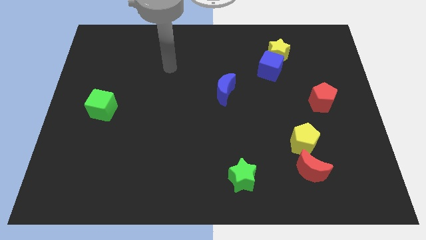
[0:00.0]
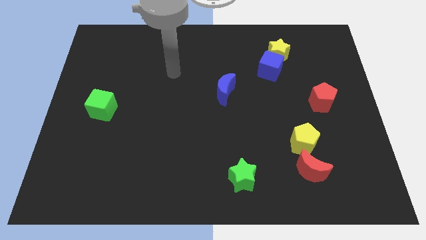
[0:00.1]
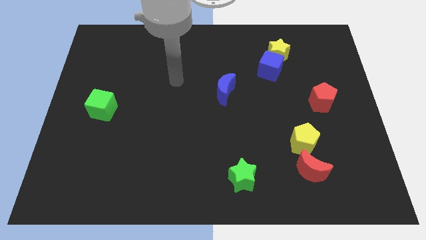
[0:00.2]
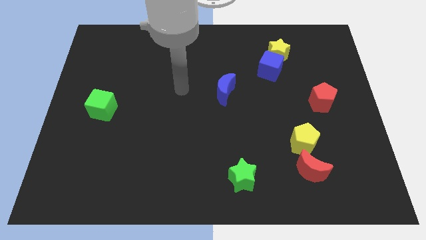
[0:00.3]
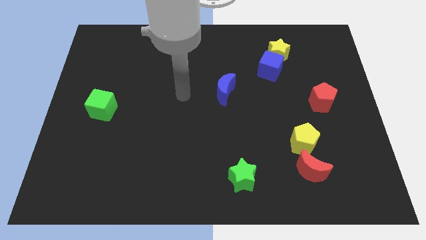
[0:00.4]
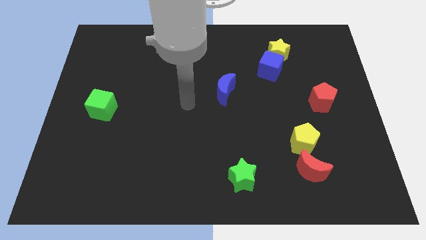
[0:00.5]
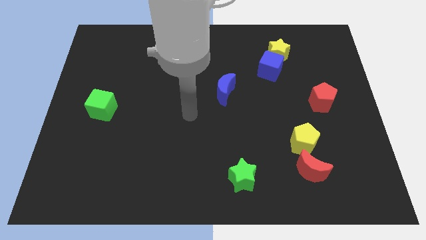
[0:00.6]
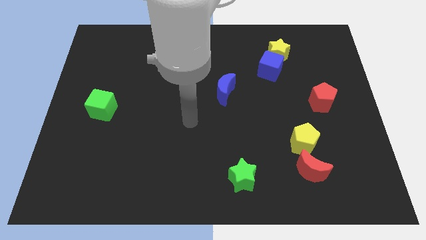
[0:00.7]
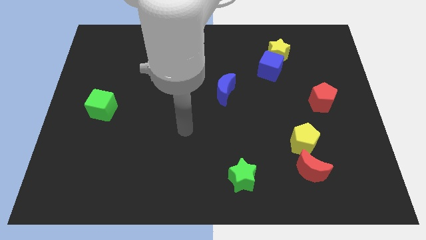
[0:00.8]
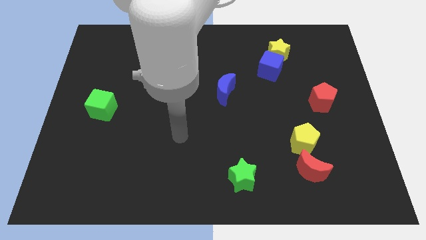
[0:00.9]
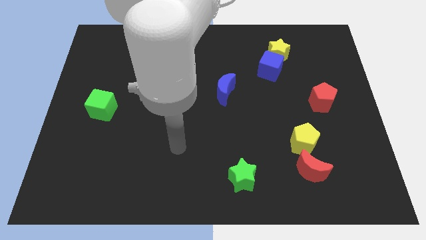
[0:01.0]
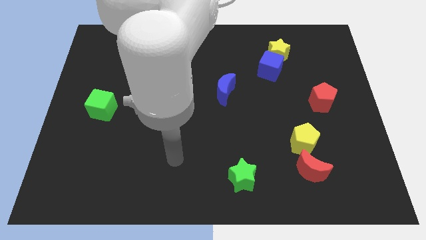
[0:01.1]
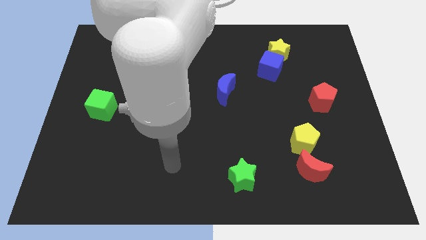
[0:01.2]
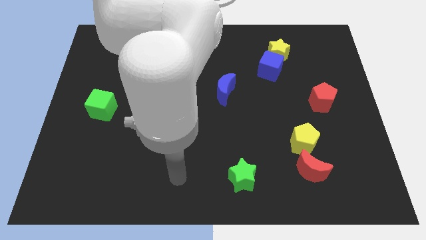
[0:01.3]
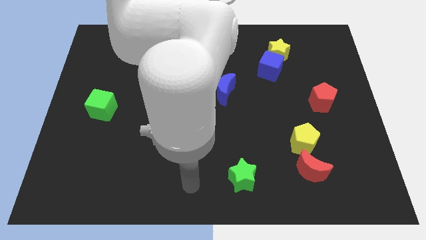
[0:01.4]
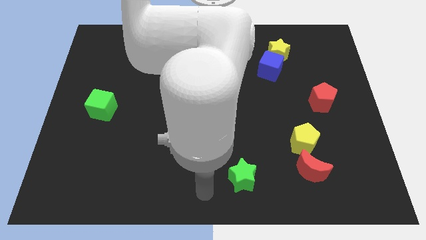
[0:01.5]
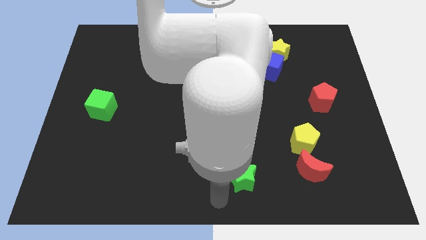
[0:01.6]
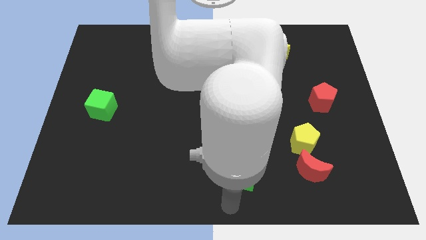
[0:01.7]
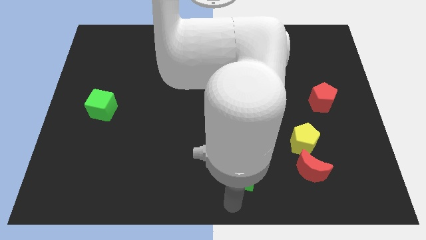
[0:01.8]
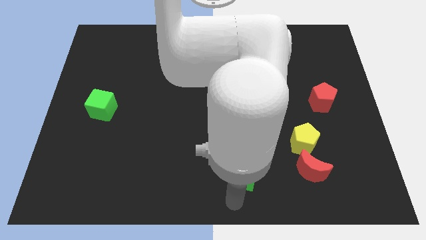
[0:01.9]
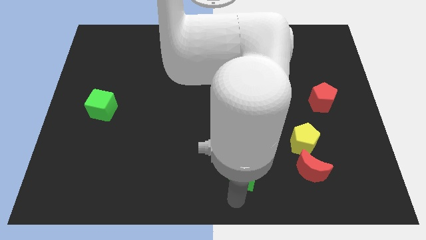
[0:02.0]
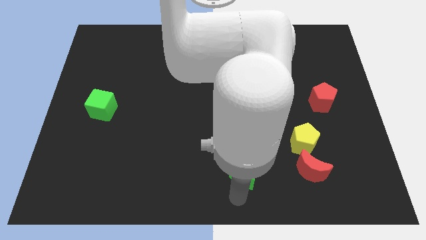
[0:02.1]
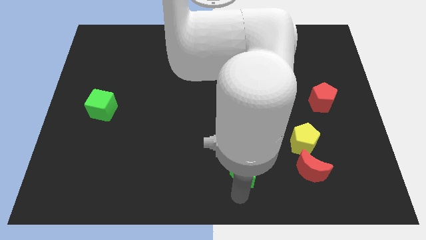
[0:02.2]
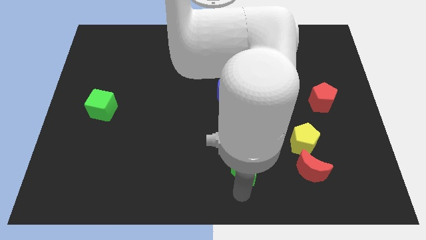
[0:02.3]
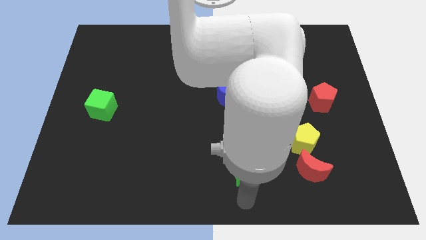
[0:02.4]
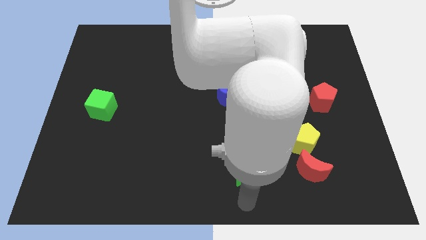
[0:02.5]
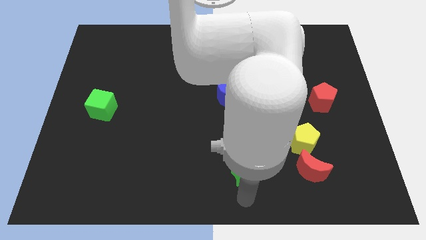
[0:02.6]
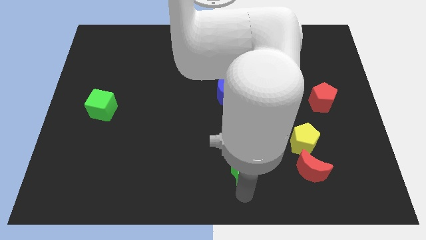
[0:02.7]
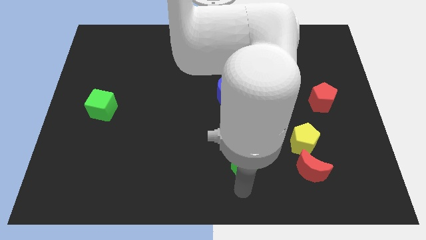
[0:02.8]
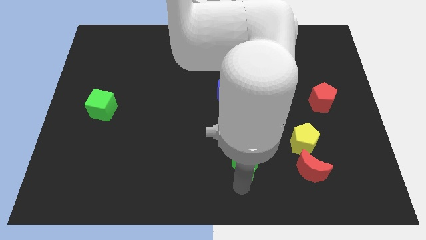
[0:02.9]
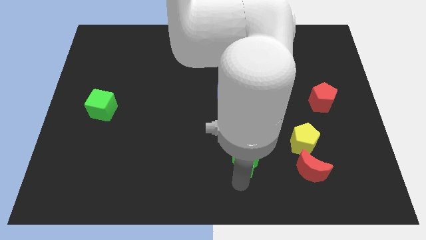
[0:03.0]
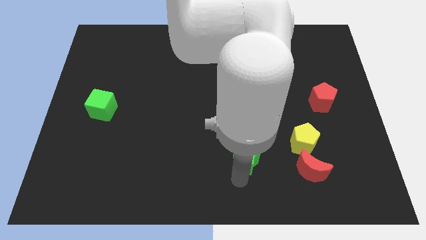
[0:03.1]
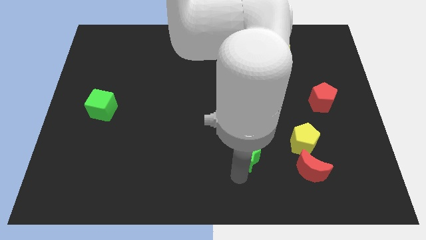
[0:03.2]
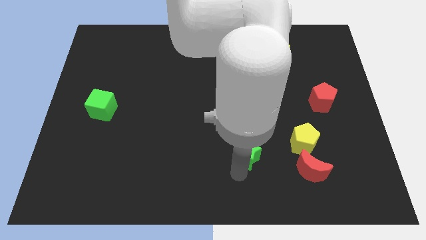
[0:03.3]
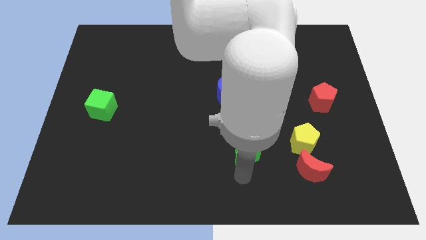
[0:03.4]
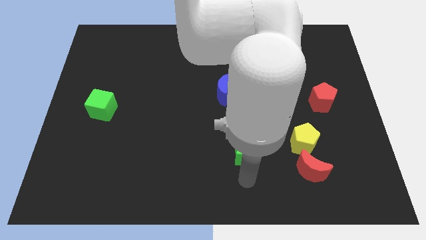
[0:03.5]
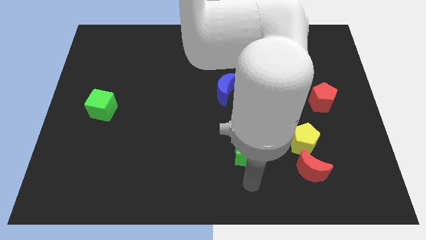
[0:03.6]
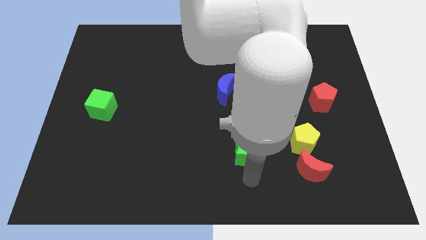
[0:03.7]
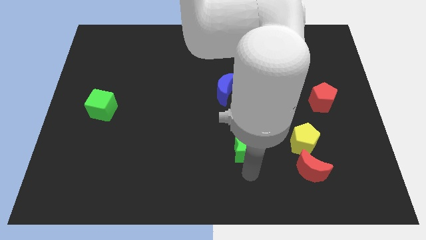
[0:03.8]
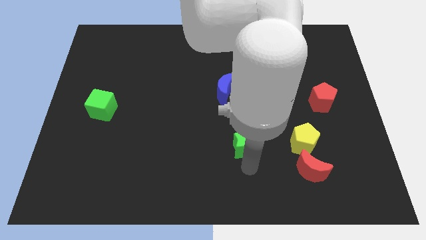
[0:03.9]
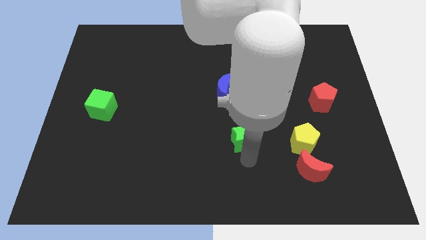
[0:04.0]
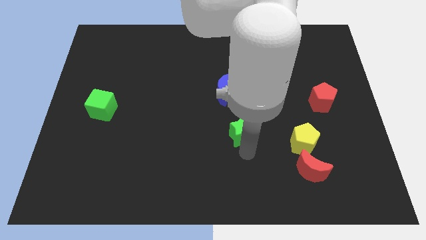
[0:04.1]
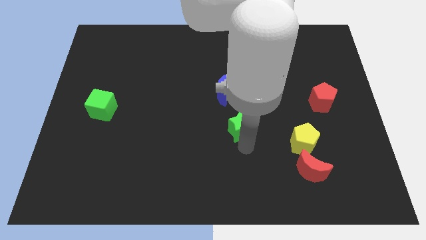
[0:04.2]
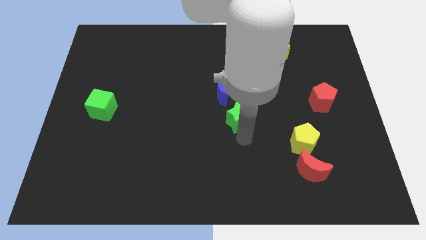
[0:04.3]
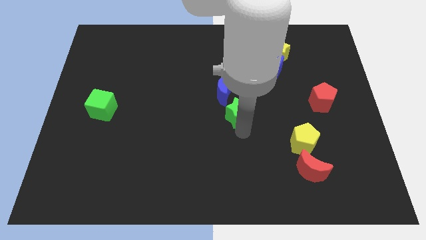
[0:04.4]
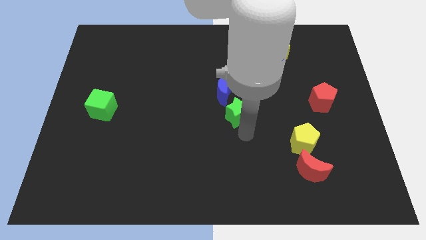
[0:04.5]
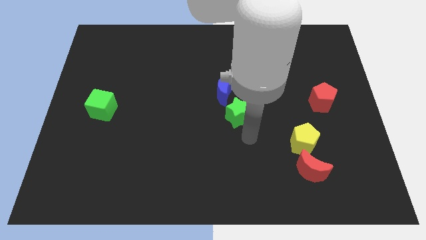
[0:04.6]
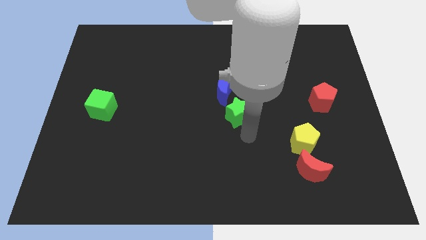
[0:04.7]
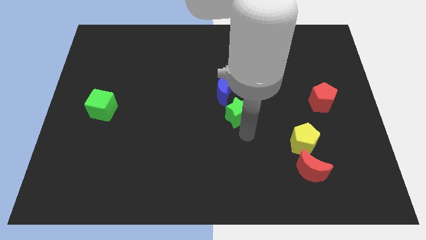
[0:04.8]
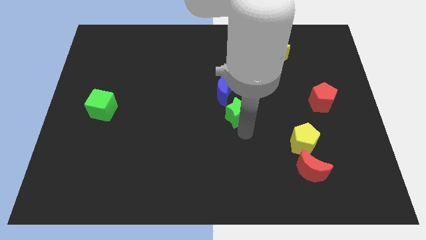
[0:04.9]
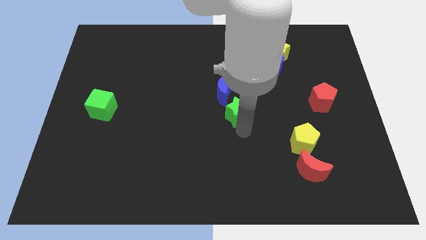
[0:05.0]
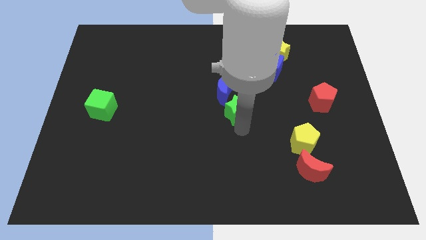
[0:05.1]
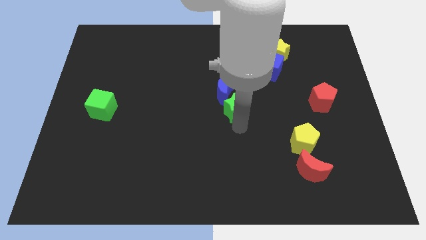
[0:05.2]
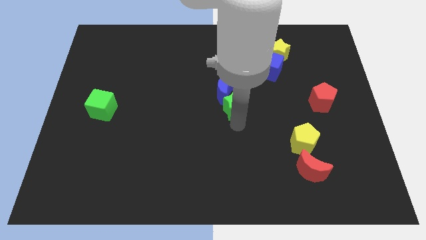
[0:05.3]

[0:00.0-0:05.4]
put the green star next to the blue moon

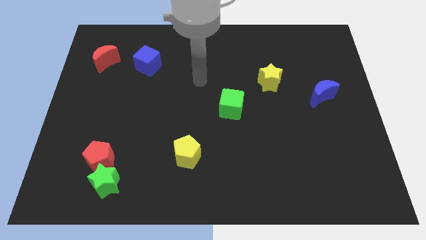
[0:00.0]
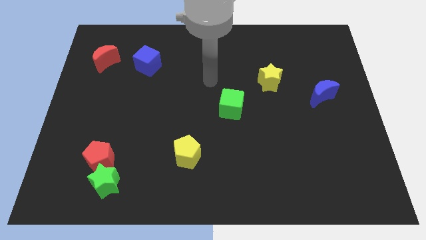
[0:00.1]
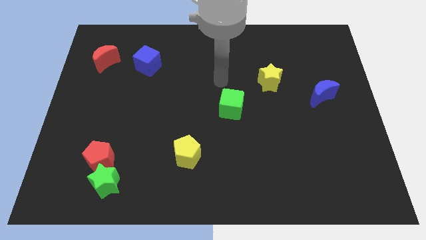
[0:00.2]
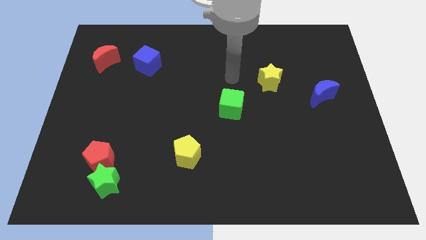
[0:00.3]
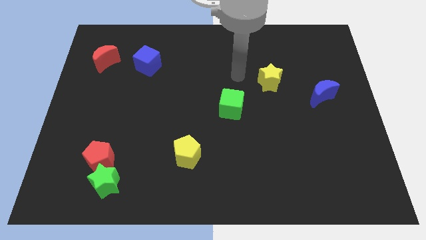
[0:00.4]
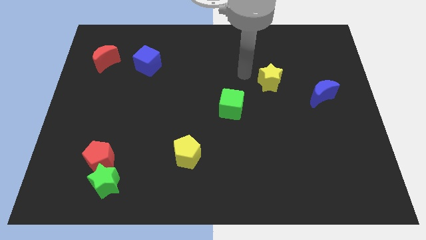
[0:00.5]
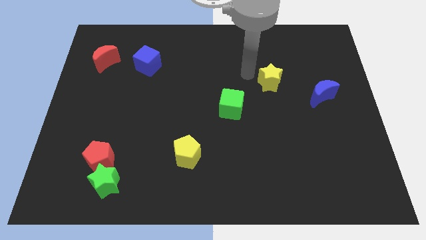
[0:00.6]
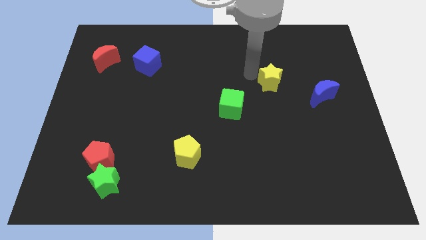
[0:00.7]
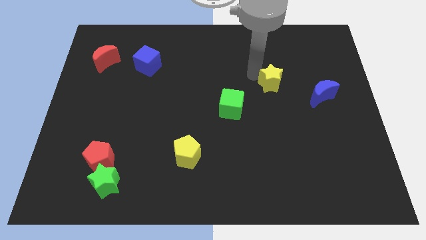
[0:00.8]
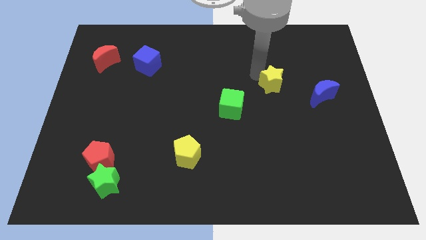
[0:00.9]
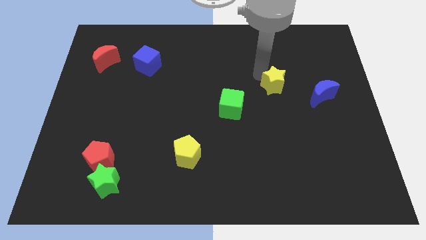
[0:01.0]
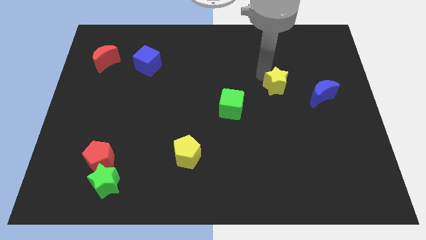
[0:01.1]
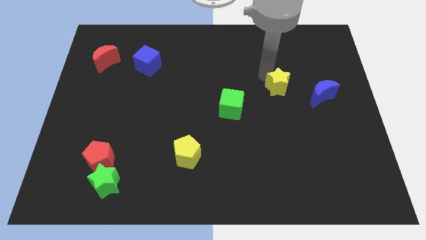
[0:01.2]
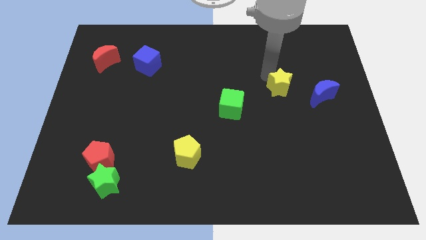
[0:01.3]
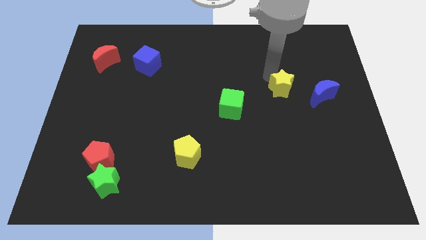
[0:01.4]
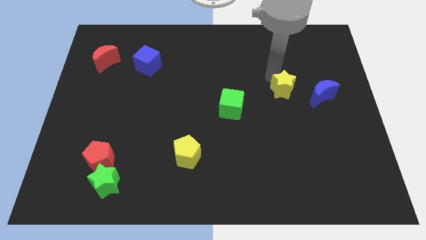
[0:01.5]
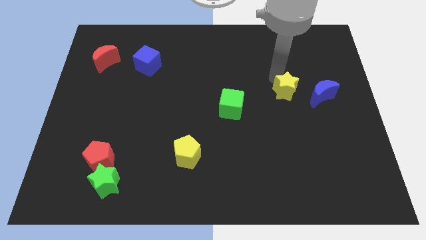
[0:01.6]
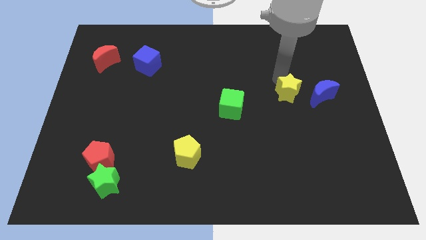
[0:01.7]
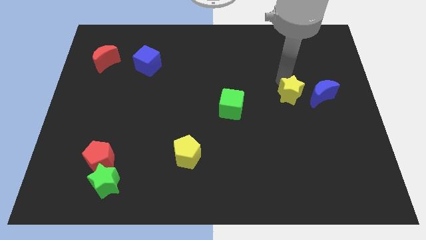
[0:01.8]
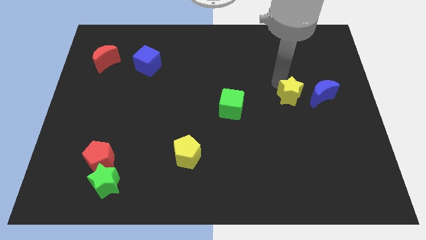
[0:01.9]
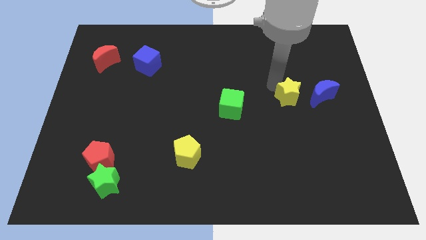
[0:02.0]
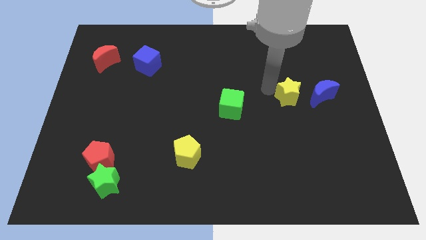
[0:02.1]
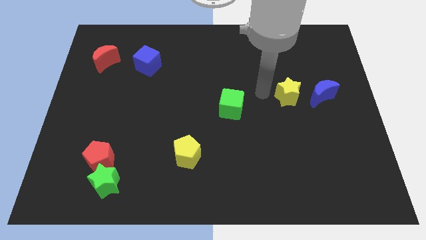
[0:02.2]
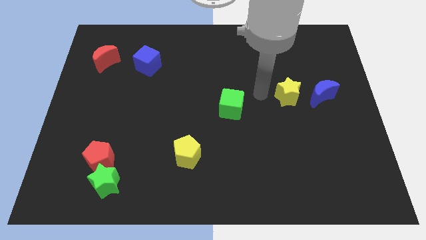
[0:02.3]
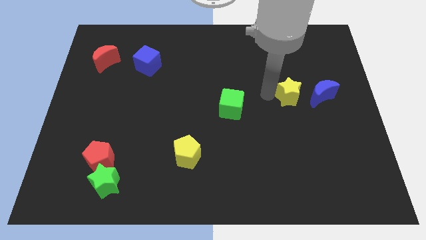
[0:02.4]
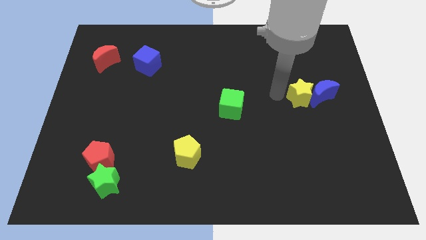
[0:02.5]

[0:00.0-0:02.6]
move the yellow star to the blue moon
